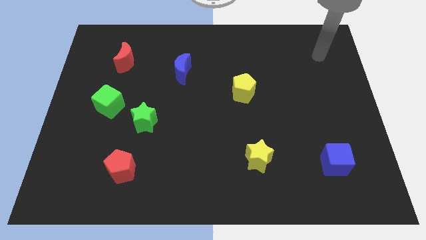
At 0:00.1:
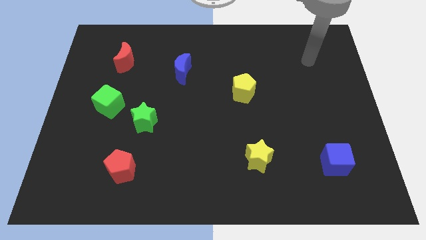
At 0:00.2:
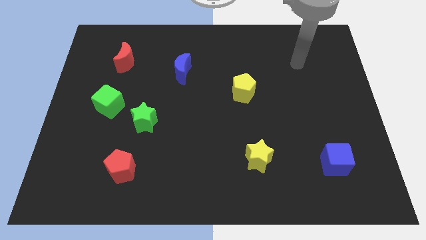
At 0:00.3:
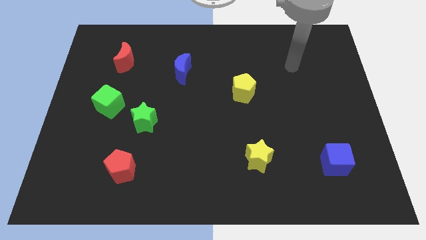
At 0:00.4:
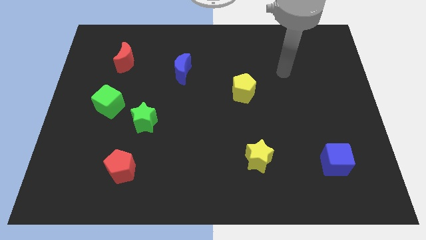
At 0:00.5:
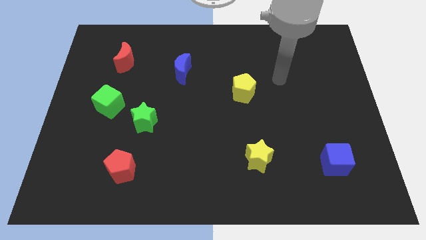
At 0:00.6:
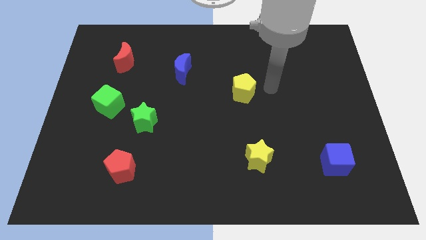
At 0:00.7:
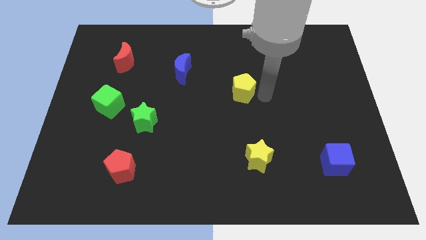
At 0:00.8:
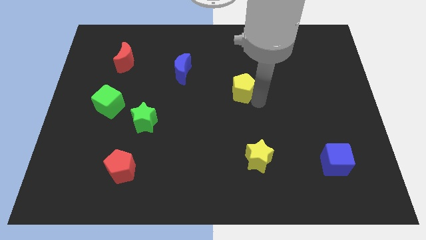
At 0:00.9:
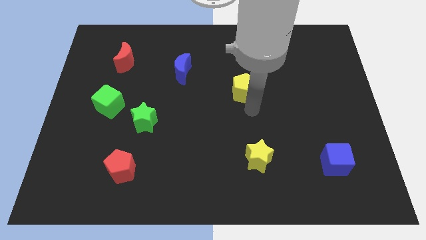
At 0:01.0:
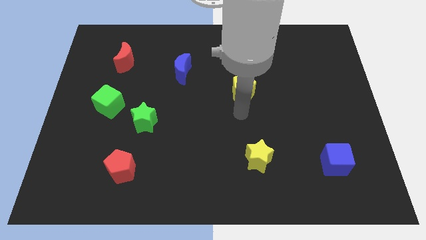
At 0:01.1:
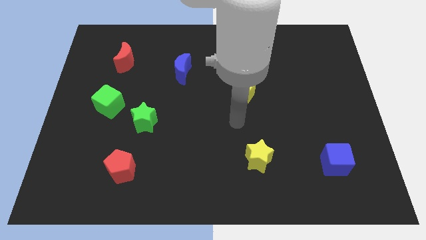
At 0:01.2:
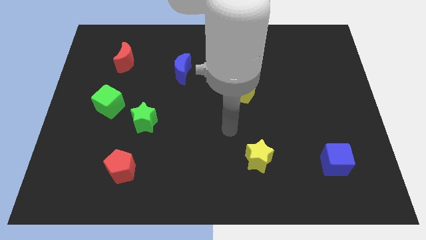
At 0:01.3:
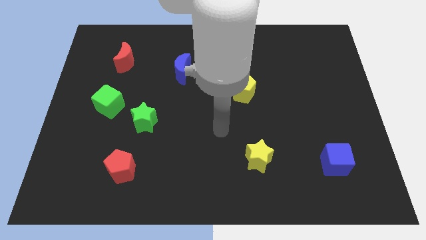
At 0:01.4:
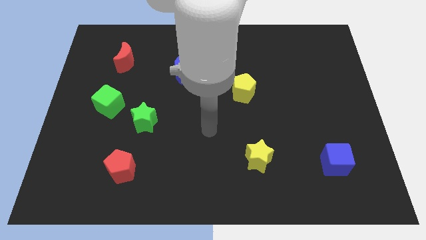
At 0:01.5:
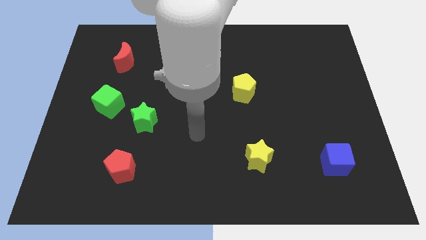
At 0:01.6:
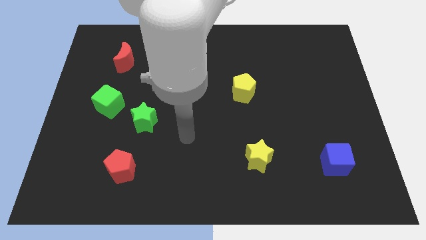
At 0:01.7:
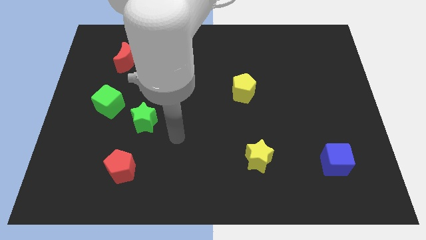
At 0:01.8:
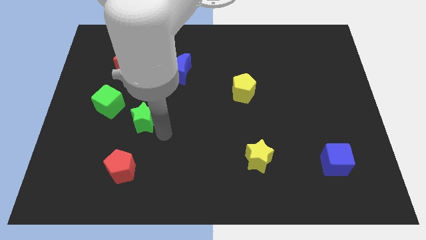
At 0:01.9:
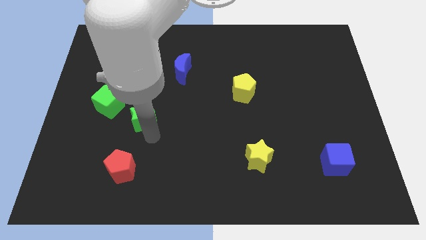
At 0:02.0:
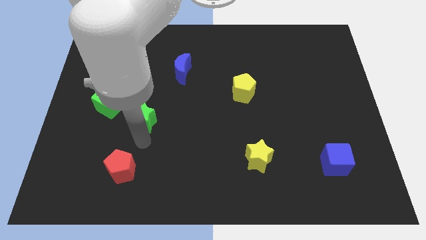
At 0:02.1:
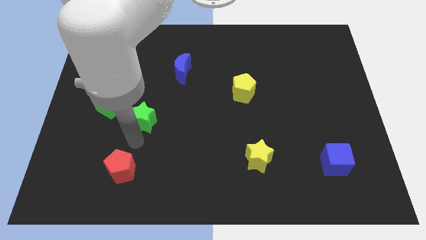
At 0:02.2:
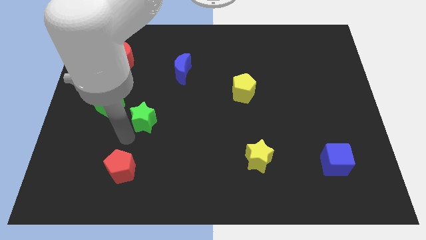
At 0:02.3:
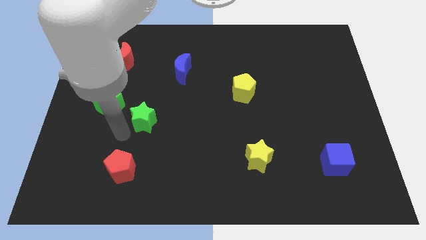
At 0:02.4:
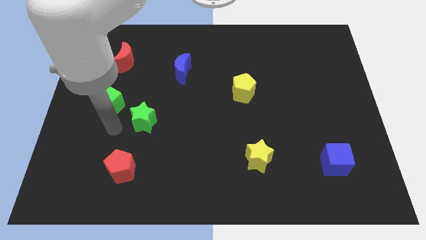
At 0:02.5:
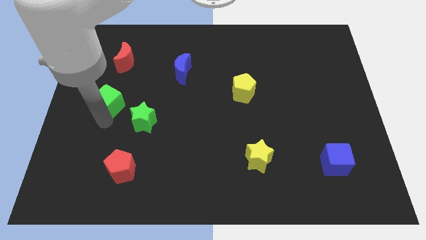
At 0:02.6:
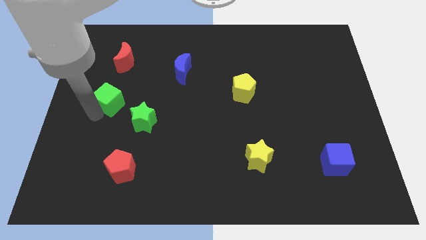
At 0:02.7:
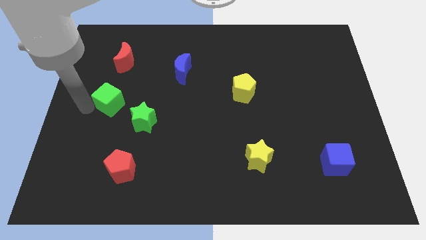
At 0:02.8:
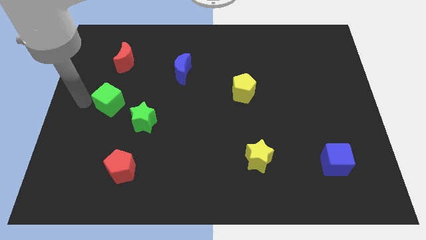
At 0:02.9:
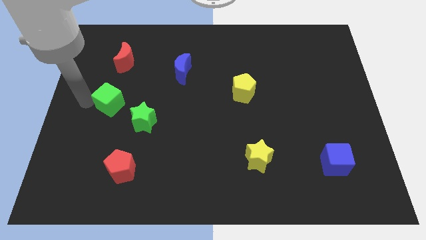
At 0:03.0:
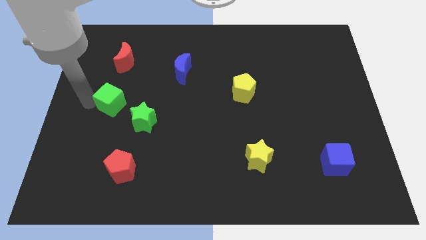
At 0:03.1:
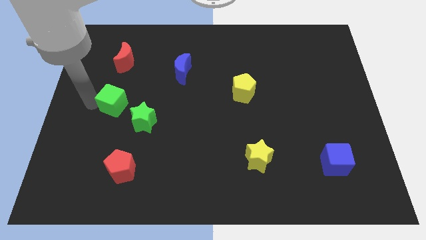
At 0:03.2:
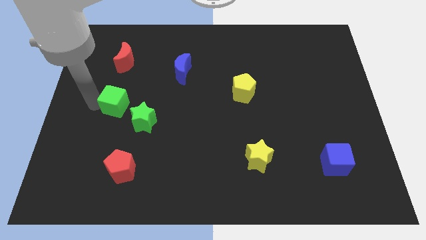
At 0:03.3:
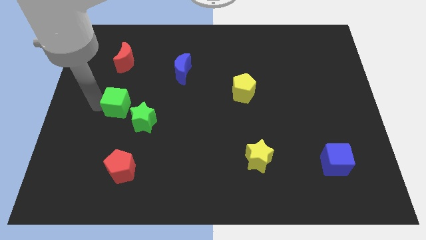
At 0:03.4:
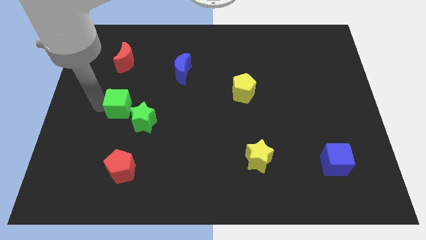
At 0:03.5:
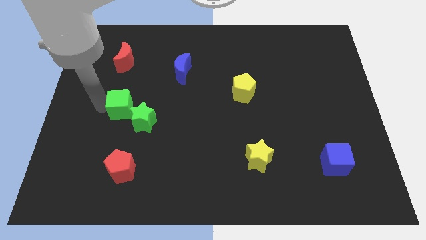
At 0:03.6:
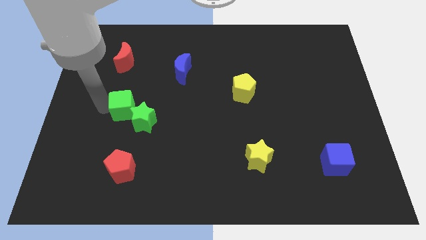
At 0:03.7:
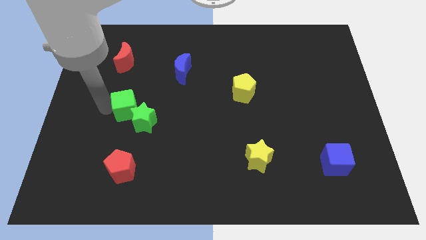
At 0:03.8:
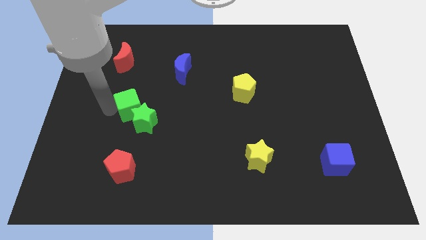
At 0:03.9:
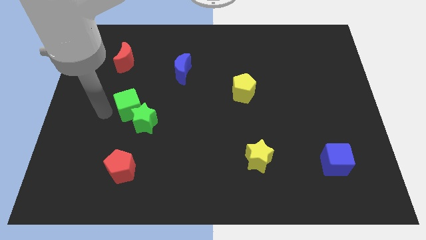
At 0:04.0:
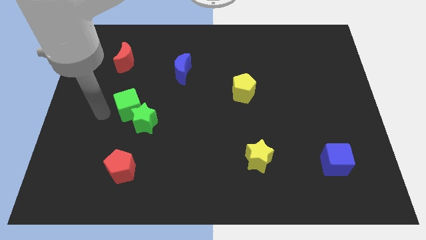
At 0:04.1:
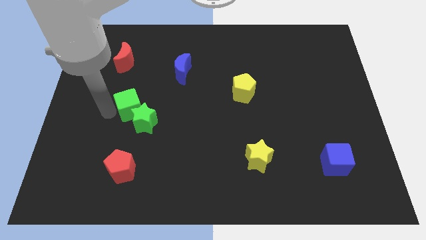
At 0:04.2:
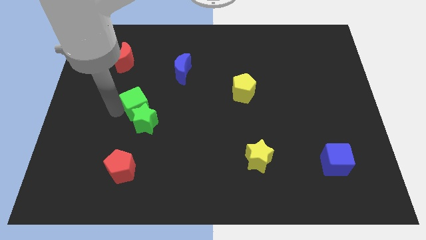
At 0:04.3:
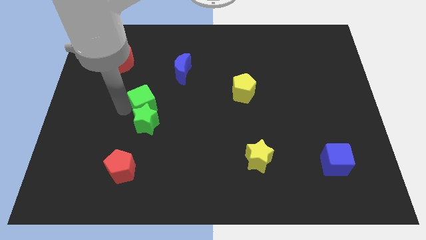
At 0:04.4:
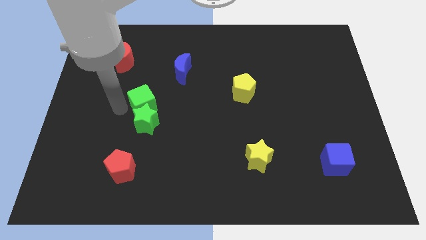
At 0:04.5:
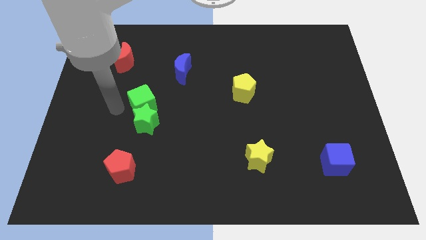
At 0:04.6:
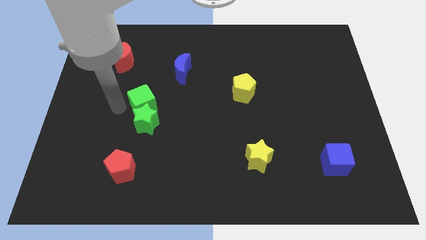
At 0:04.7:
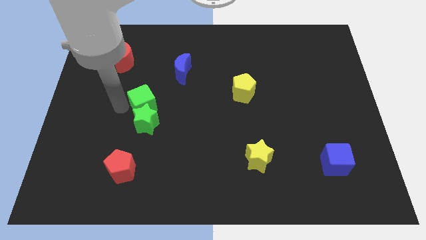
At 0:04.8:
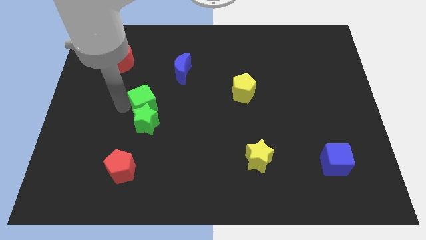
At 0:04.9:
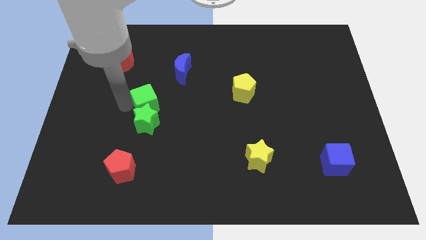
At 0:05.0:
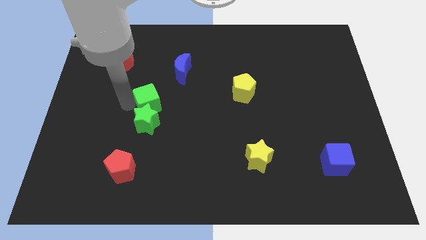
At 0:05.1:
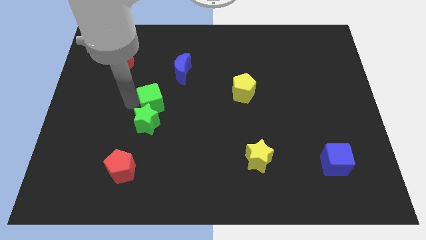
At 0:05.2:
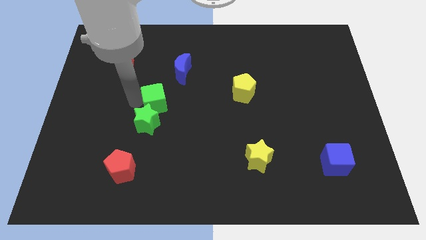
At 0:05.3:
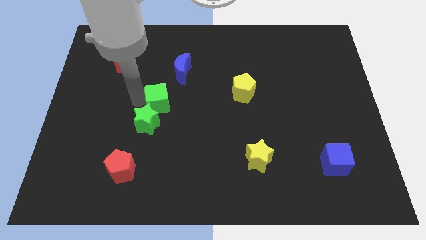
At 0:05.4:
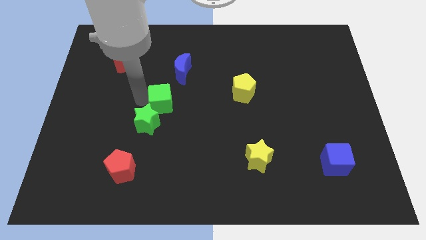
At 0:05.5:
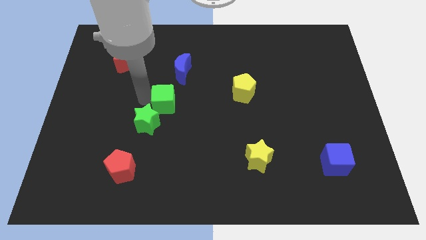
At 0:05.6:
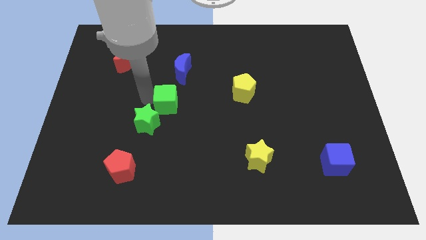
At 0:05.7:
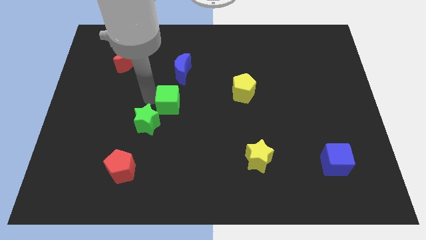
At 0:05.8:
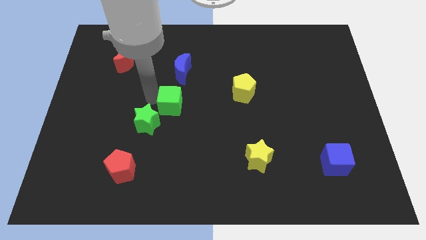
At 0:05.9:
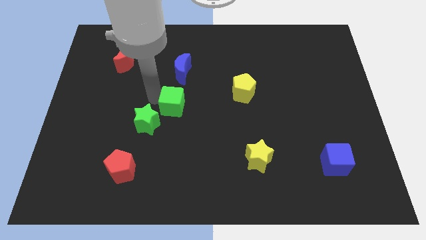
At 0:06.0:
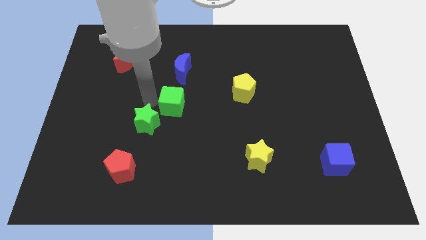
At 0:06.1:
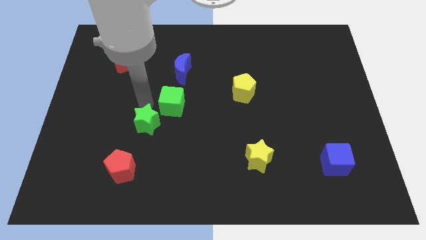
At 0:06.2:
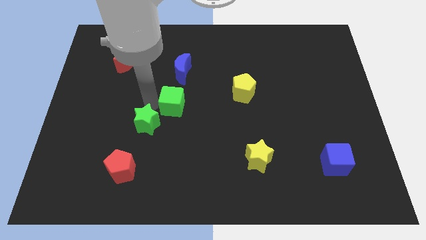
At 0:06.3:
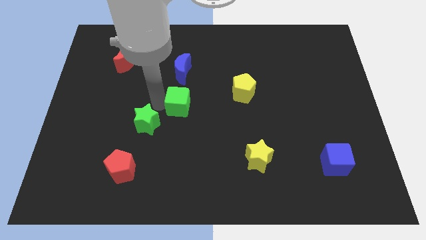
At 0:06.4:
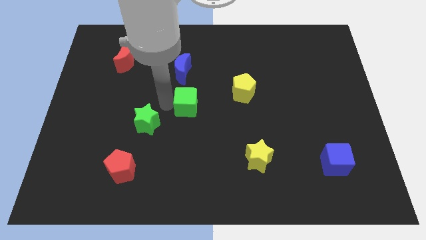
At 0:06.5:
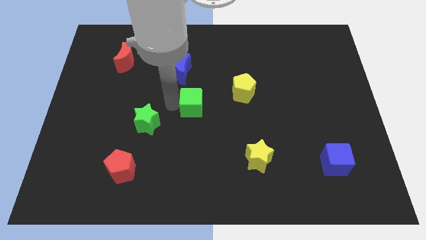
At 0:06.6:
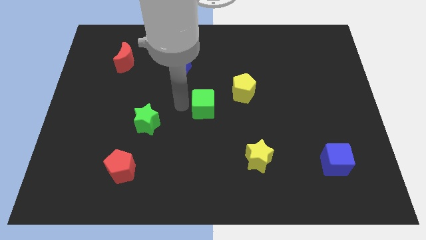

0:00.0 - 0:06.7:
slide the green cube to the right

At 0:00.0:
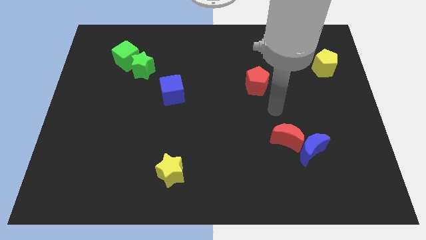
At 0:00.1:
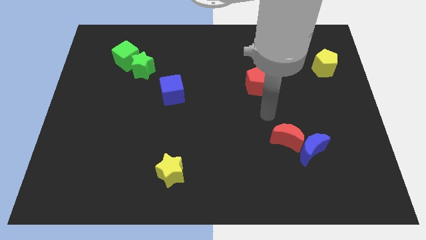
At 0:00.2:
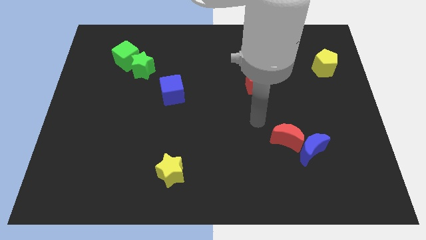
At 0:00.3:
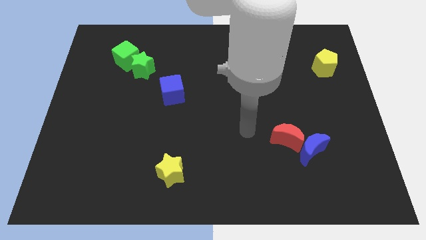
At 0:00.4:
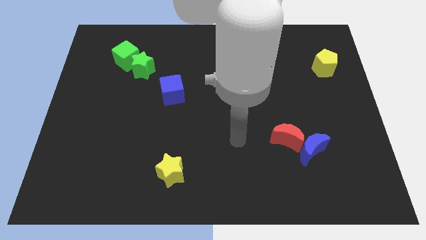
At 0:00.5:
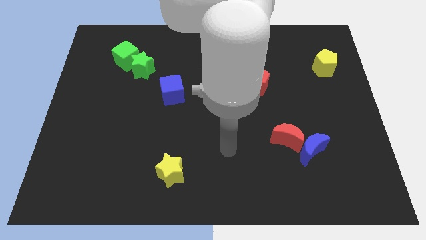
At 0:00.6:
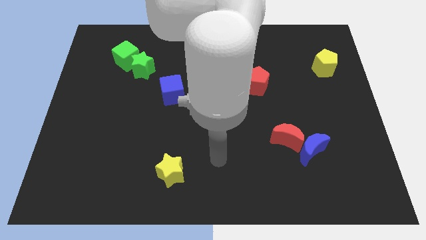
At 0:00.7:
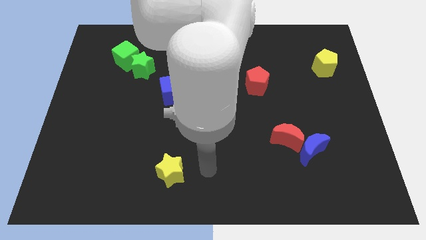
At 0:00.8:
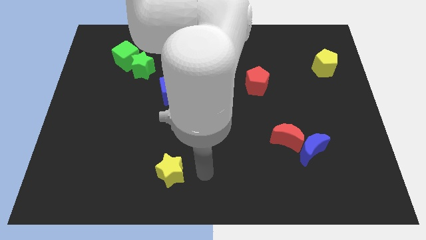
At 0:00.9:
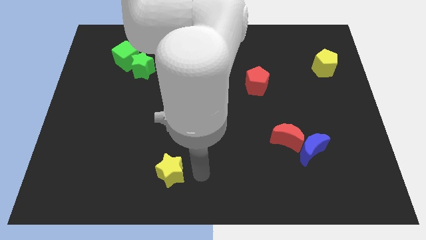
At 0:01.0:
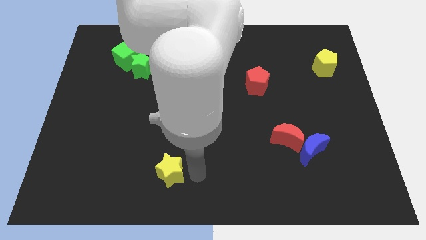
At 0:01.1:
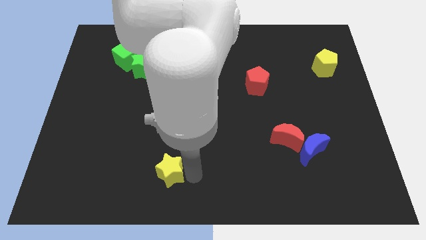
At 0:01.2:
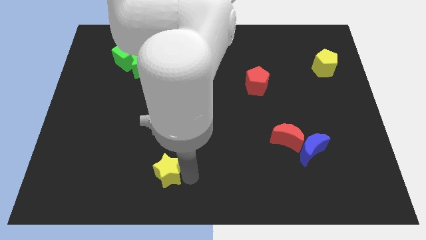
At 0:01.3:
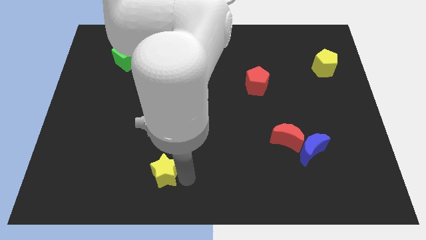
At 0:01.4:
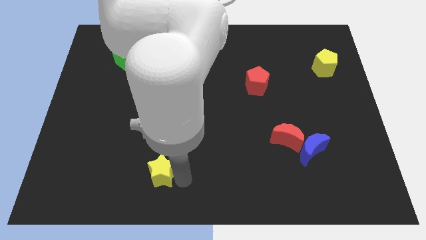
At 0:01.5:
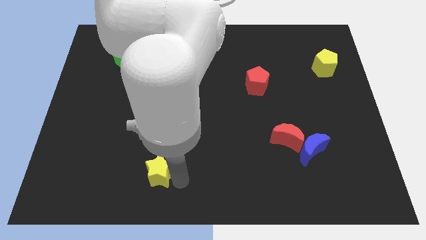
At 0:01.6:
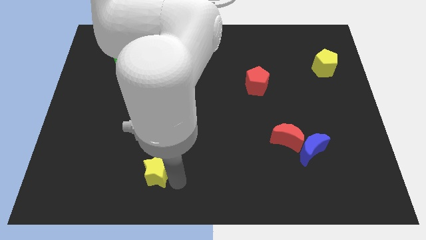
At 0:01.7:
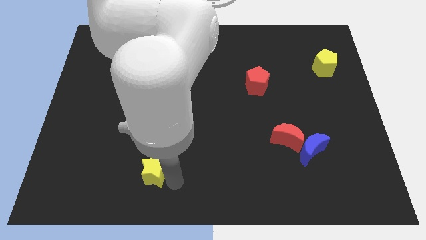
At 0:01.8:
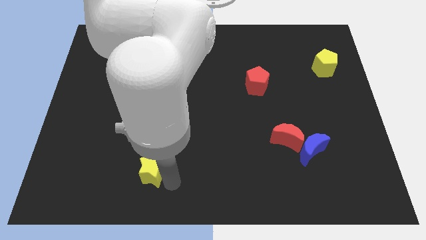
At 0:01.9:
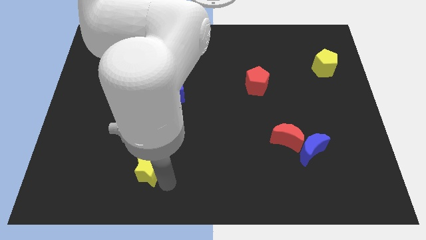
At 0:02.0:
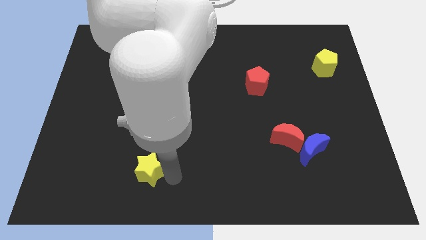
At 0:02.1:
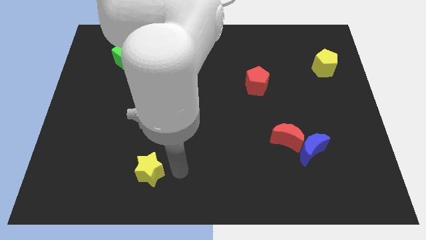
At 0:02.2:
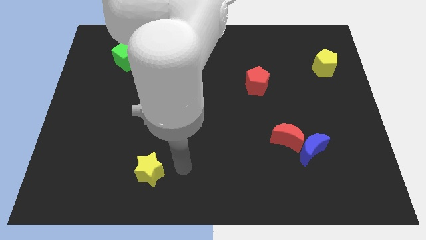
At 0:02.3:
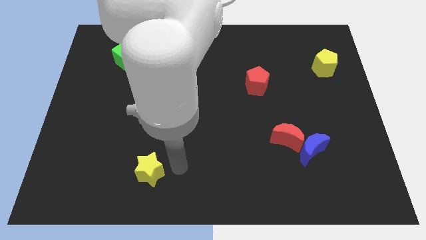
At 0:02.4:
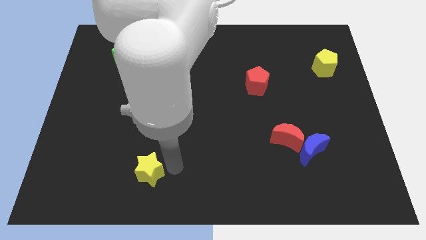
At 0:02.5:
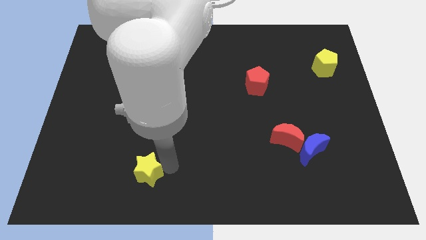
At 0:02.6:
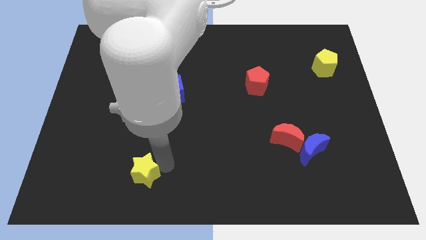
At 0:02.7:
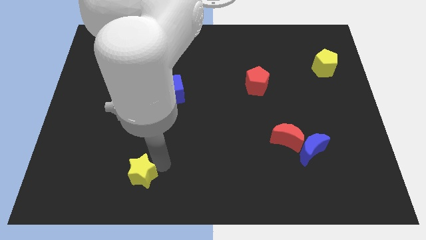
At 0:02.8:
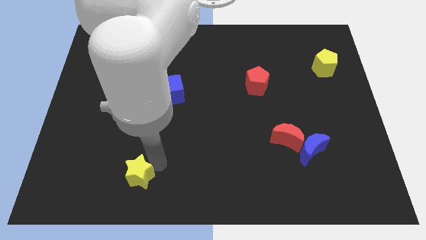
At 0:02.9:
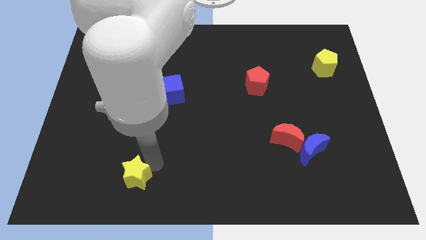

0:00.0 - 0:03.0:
slightly push the yellow star to the left
